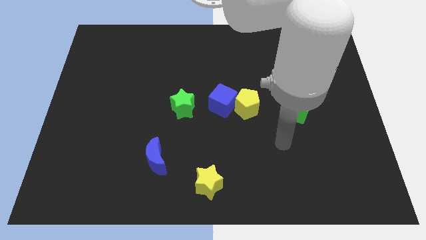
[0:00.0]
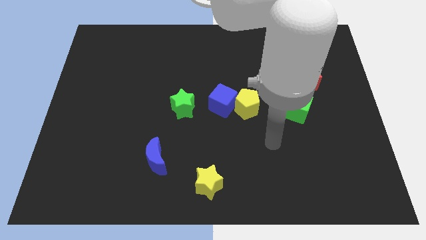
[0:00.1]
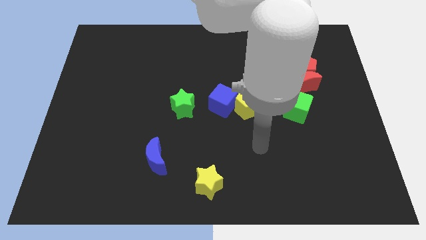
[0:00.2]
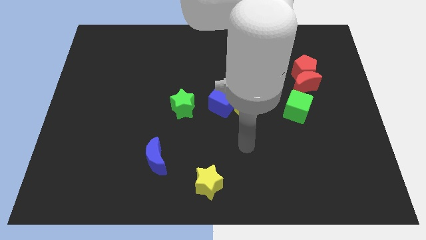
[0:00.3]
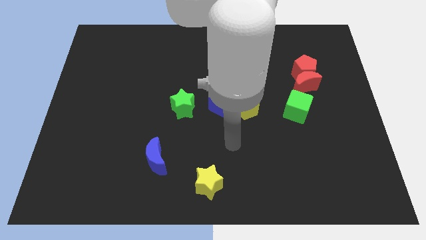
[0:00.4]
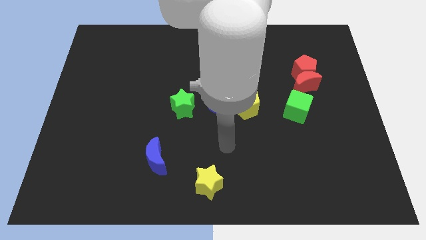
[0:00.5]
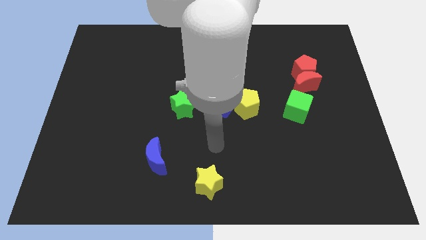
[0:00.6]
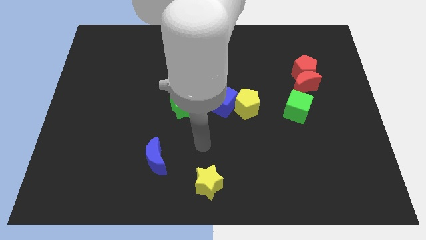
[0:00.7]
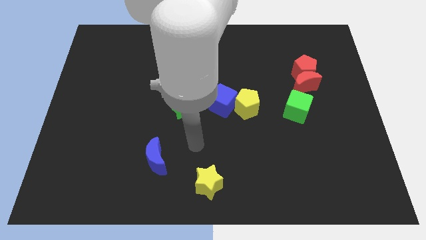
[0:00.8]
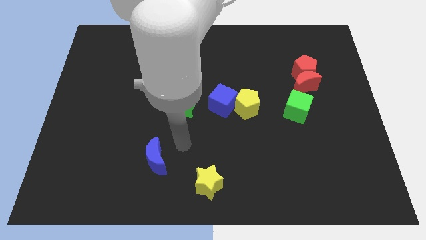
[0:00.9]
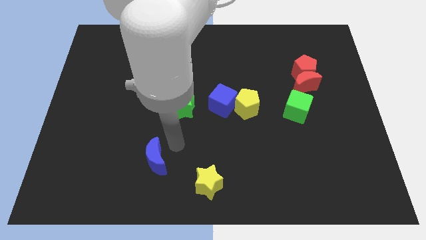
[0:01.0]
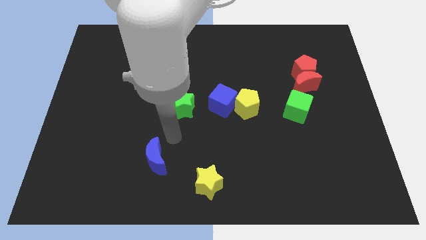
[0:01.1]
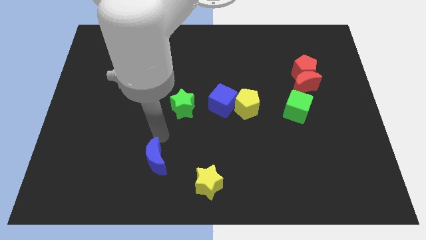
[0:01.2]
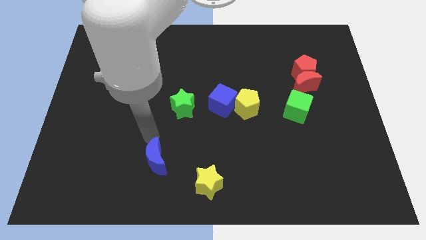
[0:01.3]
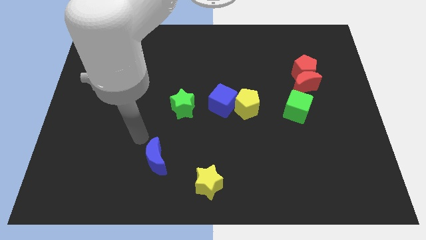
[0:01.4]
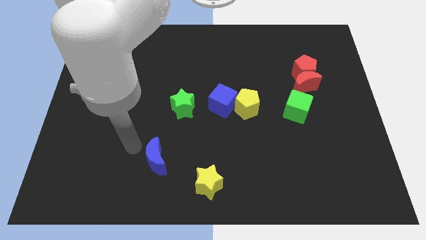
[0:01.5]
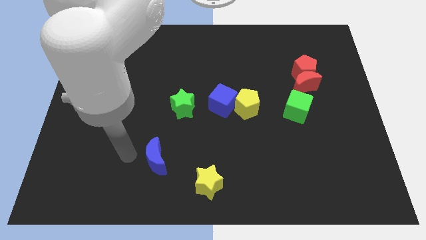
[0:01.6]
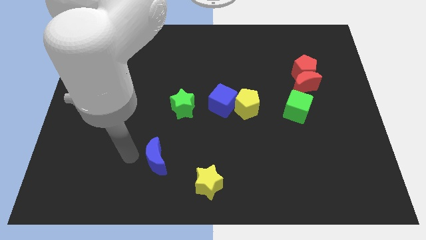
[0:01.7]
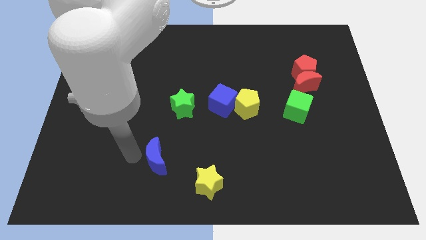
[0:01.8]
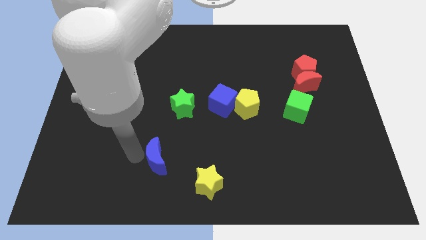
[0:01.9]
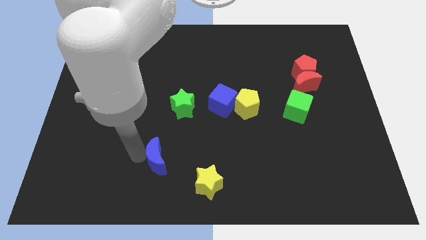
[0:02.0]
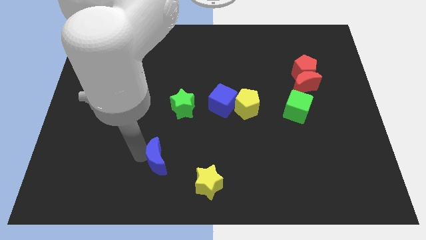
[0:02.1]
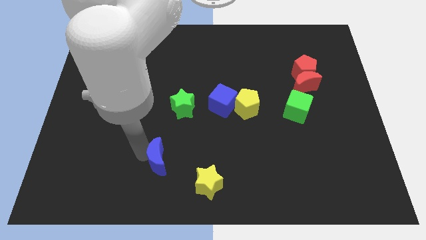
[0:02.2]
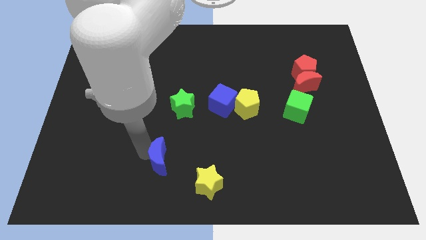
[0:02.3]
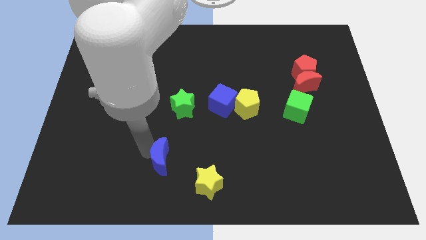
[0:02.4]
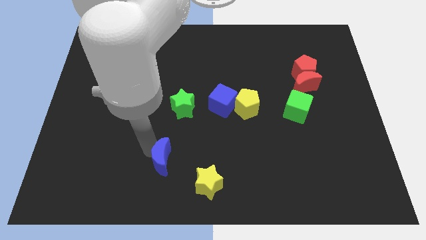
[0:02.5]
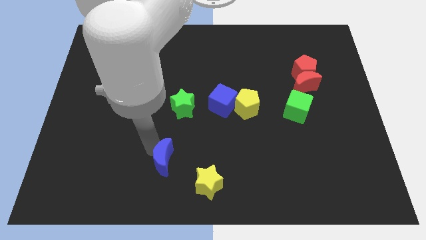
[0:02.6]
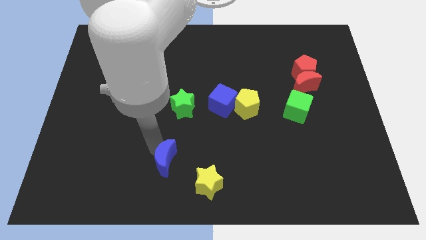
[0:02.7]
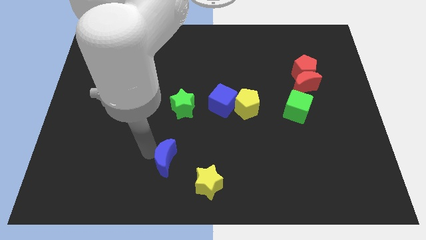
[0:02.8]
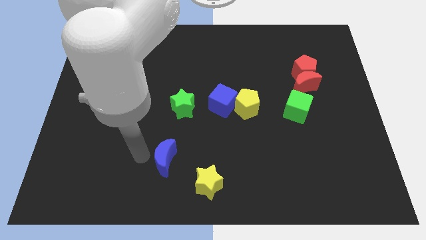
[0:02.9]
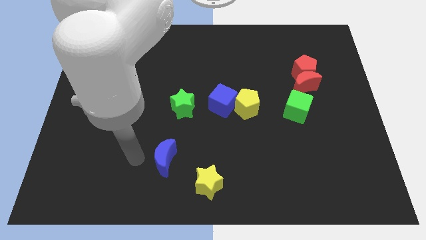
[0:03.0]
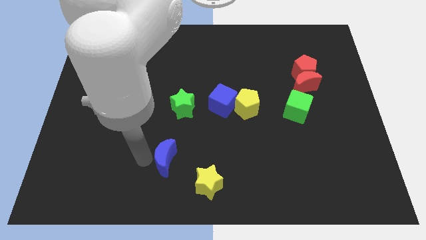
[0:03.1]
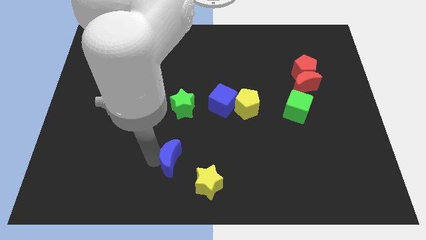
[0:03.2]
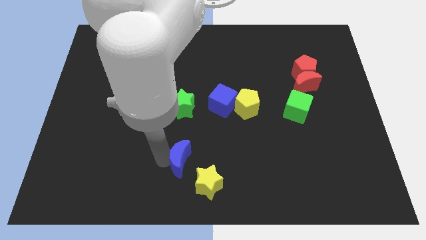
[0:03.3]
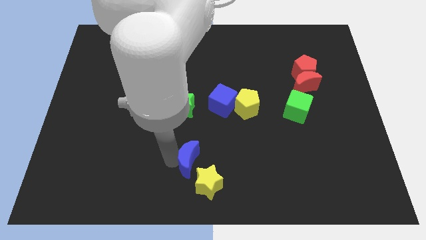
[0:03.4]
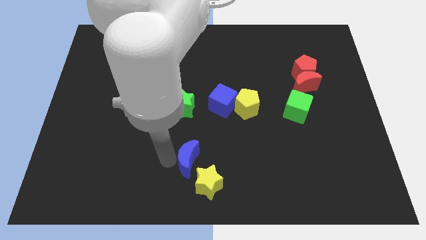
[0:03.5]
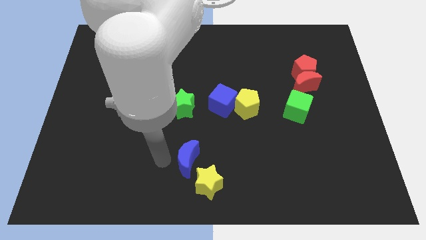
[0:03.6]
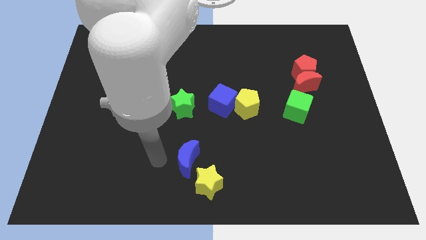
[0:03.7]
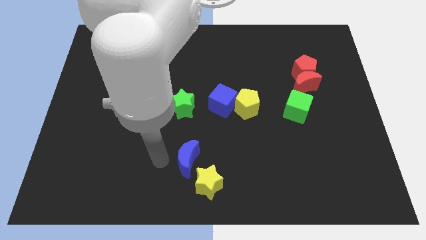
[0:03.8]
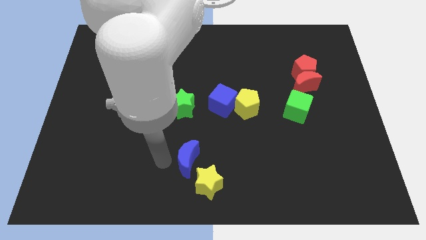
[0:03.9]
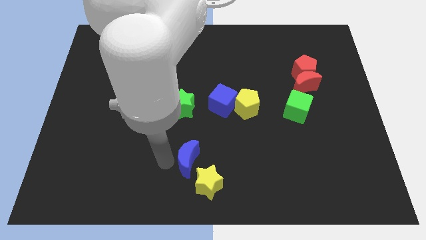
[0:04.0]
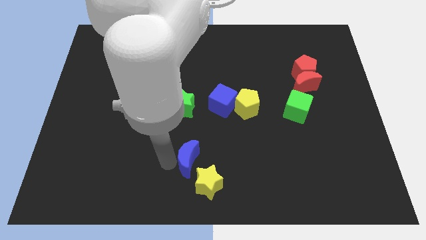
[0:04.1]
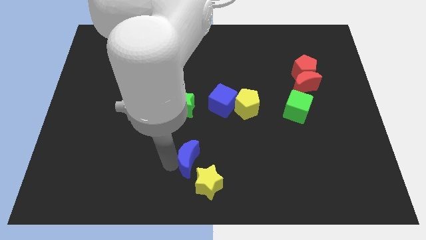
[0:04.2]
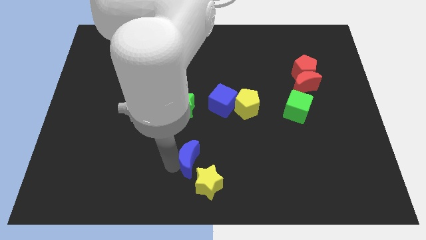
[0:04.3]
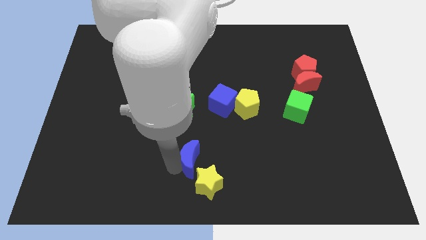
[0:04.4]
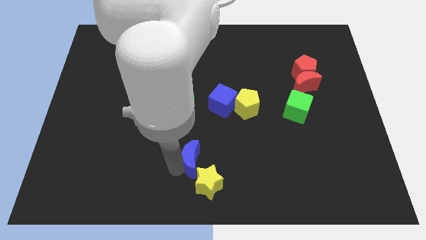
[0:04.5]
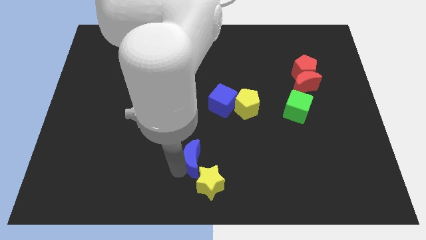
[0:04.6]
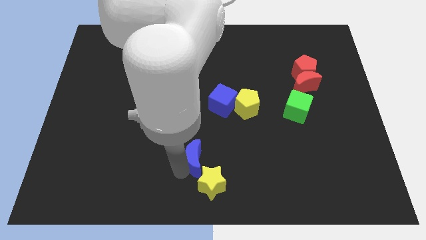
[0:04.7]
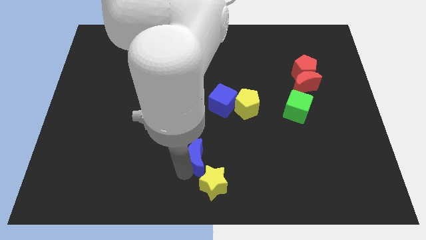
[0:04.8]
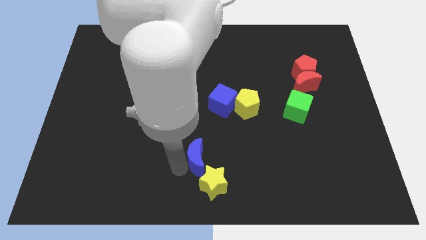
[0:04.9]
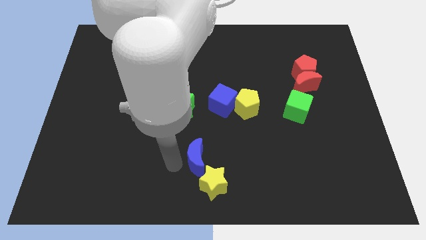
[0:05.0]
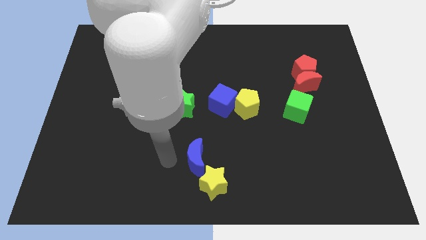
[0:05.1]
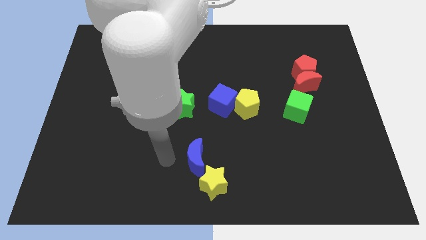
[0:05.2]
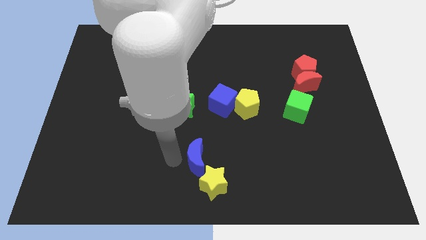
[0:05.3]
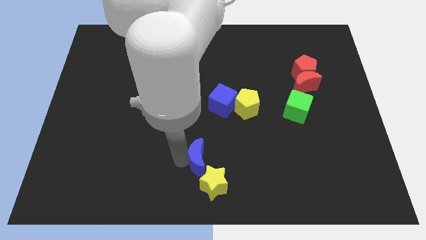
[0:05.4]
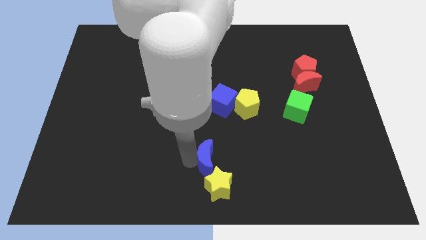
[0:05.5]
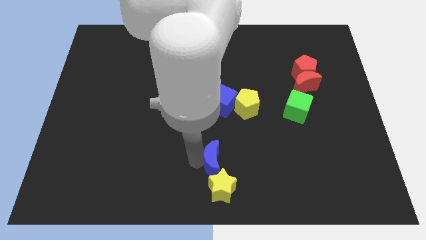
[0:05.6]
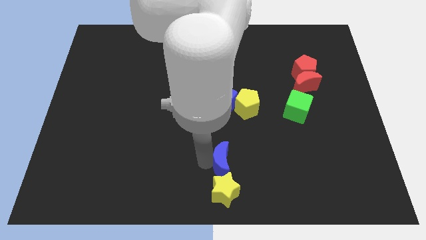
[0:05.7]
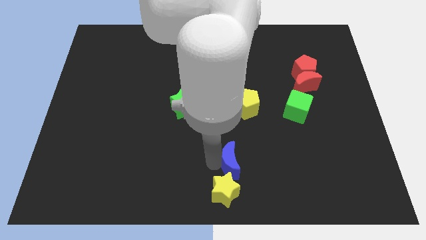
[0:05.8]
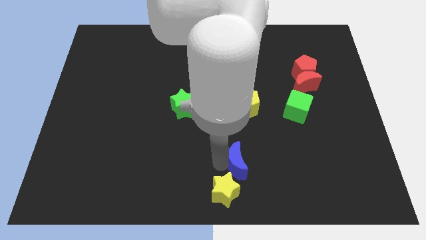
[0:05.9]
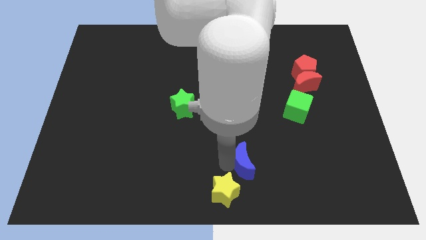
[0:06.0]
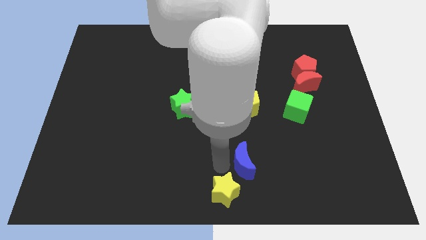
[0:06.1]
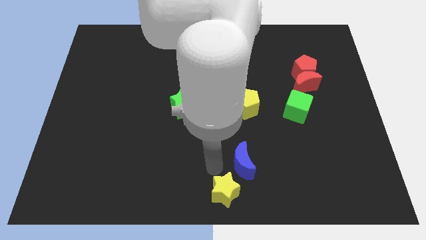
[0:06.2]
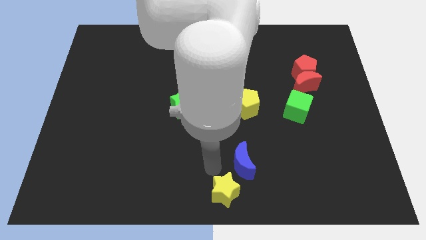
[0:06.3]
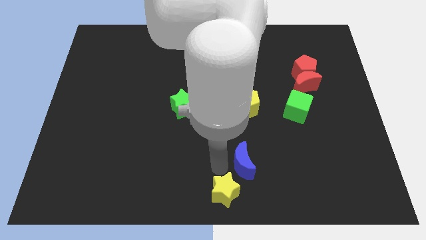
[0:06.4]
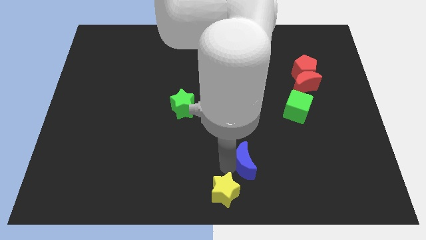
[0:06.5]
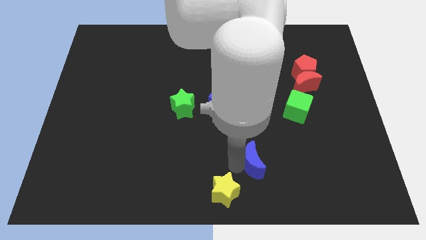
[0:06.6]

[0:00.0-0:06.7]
move the blue moon to the right

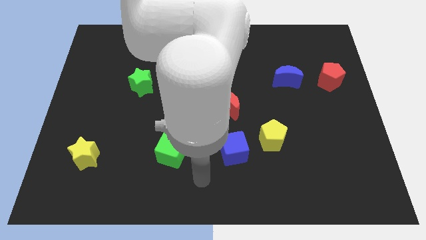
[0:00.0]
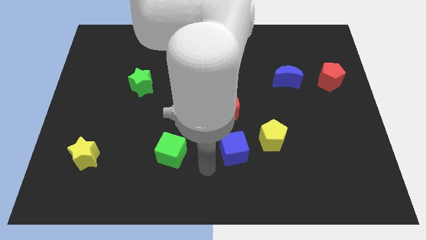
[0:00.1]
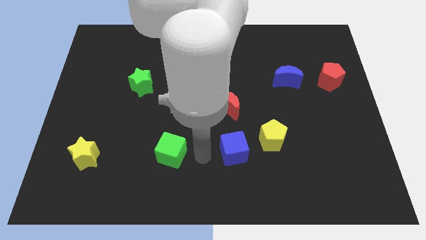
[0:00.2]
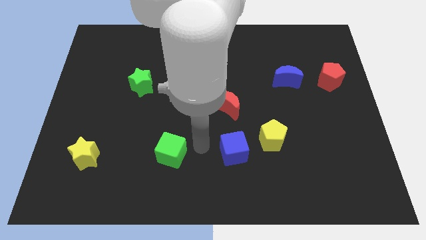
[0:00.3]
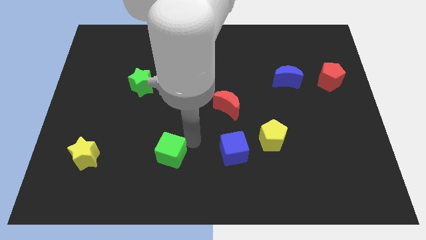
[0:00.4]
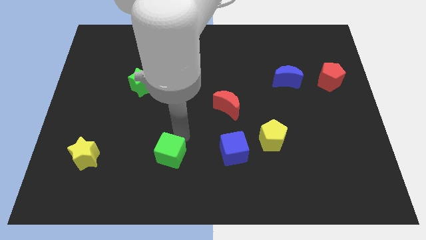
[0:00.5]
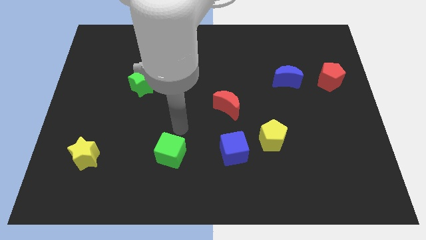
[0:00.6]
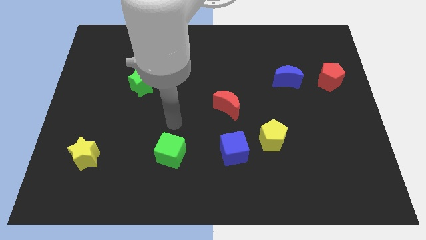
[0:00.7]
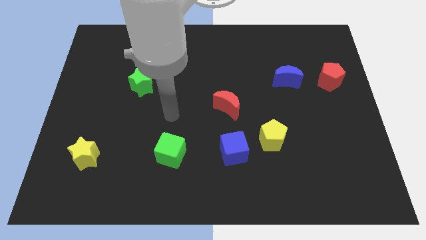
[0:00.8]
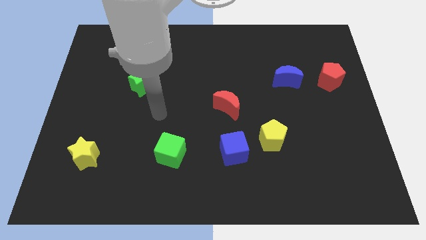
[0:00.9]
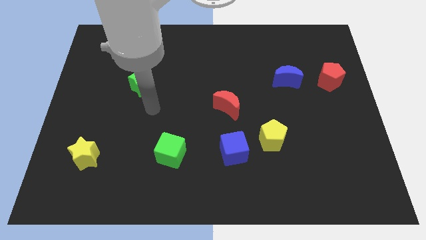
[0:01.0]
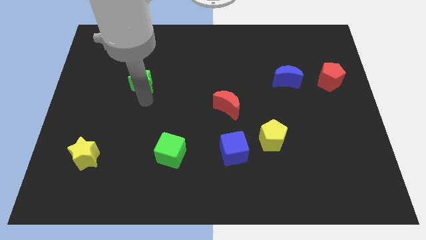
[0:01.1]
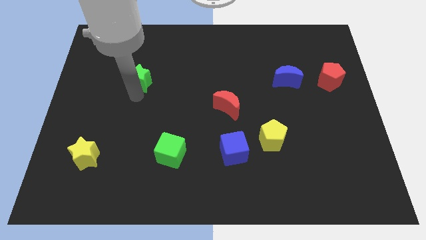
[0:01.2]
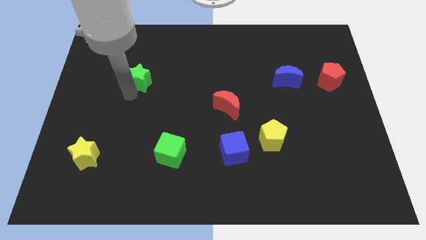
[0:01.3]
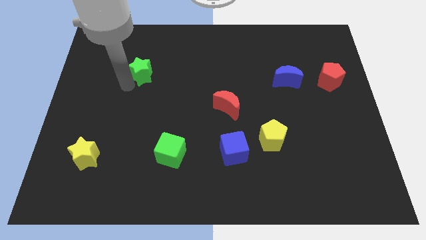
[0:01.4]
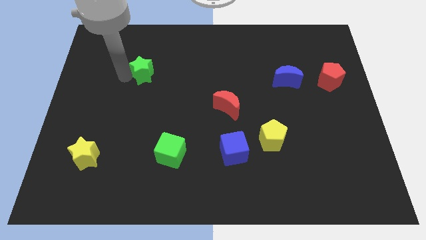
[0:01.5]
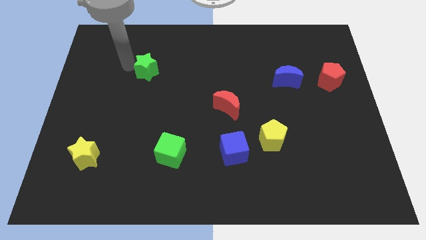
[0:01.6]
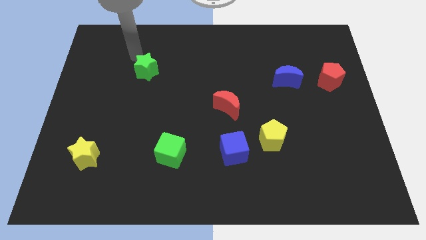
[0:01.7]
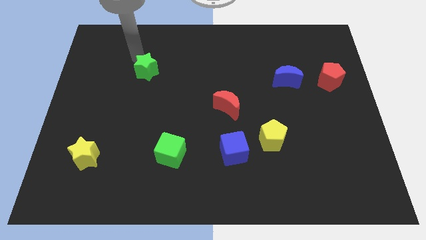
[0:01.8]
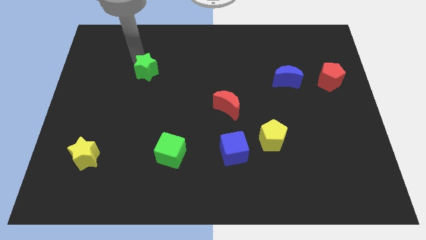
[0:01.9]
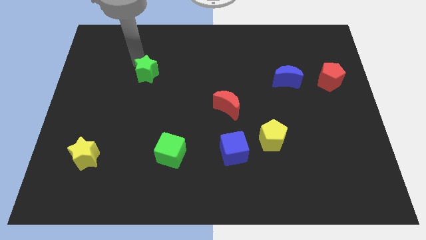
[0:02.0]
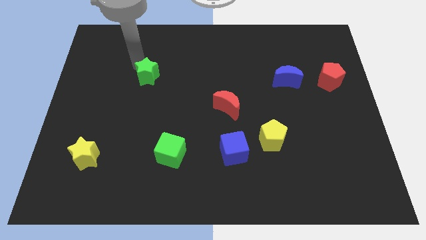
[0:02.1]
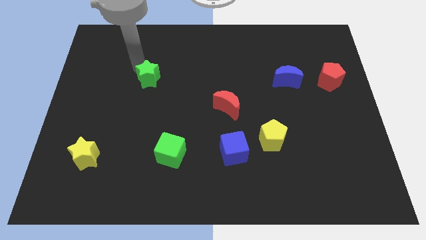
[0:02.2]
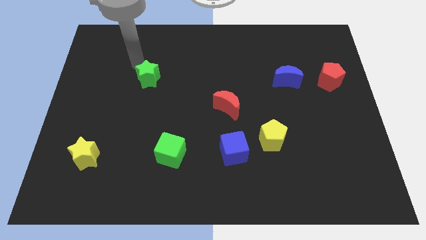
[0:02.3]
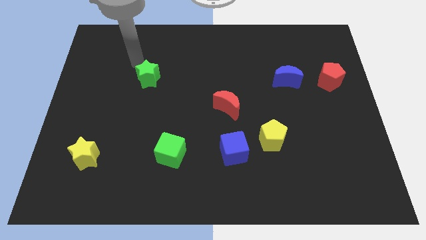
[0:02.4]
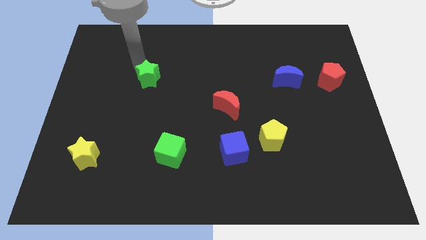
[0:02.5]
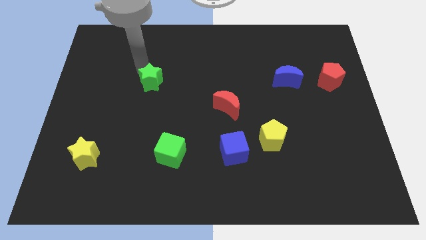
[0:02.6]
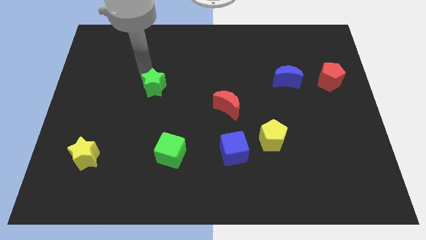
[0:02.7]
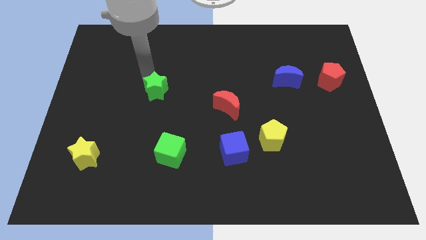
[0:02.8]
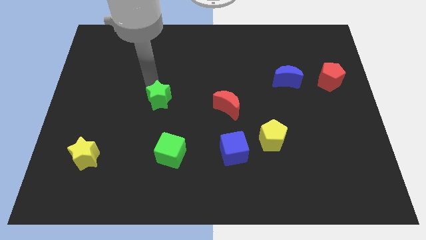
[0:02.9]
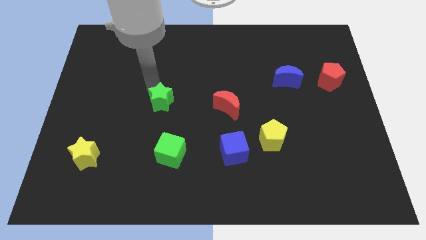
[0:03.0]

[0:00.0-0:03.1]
slightly push the green star diagonally down and to the right
